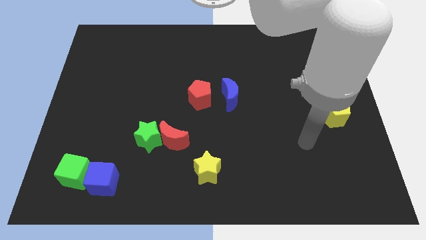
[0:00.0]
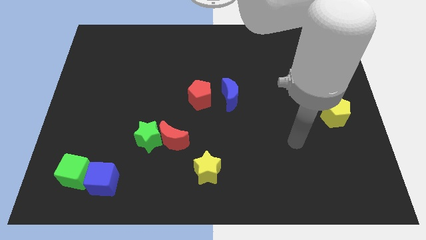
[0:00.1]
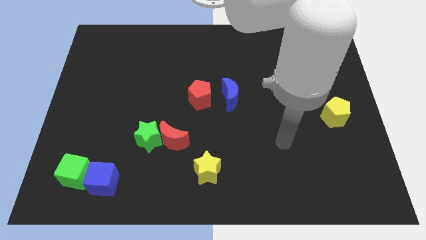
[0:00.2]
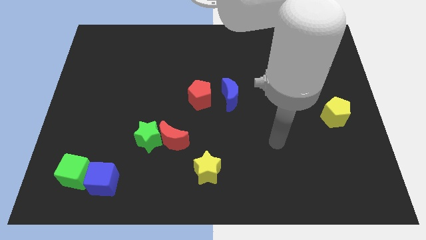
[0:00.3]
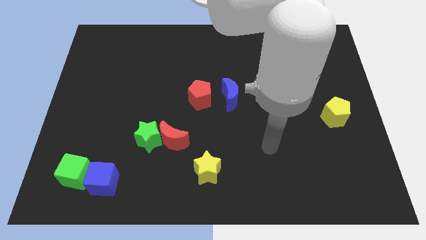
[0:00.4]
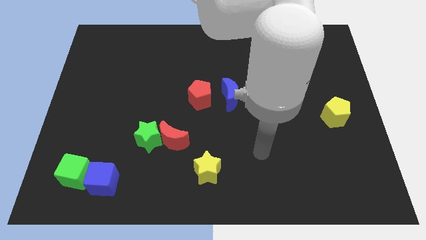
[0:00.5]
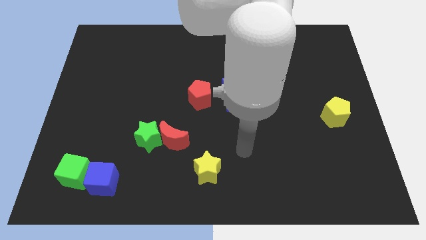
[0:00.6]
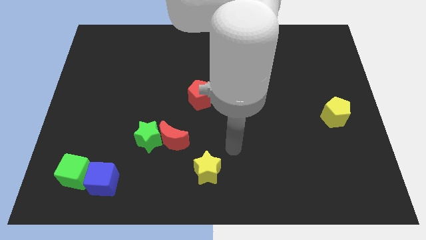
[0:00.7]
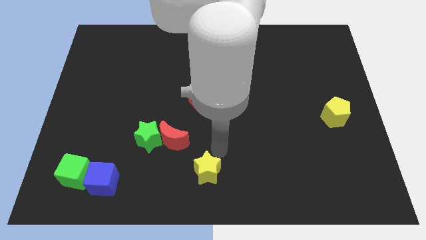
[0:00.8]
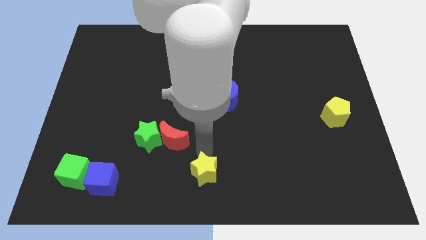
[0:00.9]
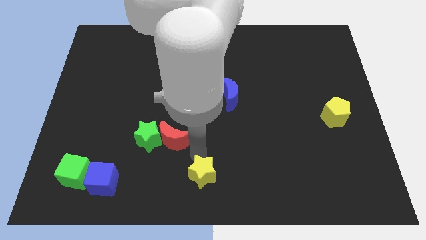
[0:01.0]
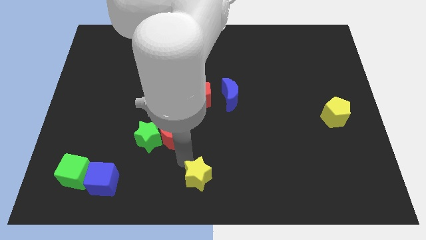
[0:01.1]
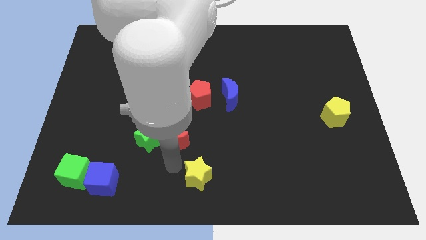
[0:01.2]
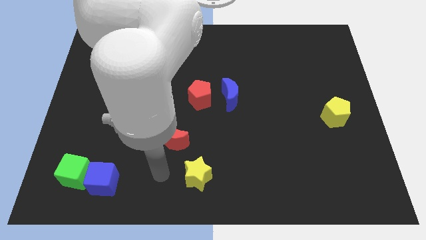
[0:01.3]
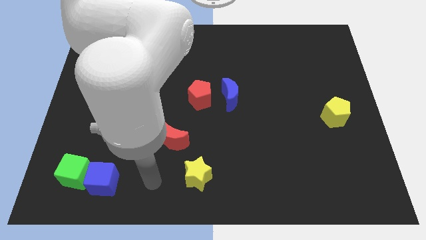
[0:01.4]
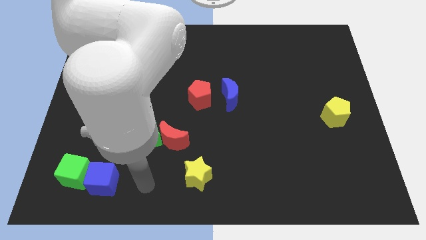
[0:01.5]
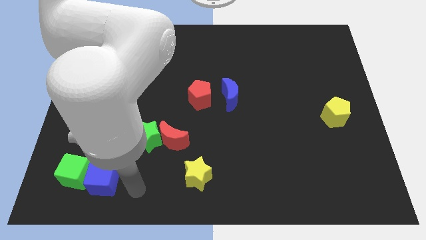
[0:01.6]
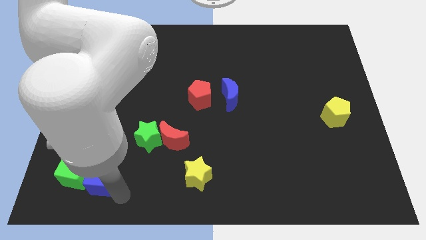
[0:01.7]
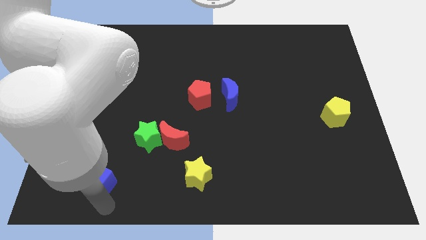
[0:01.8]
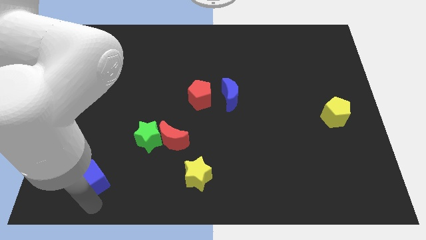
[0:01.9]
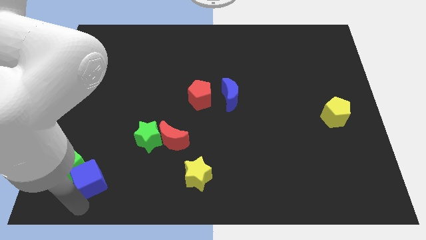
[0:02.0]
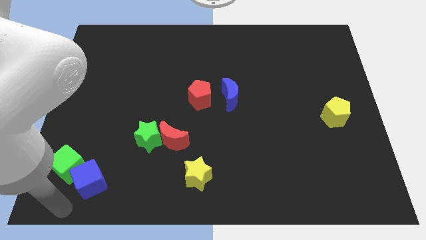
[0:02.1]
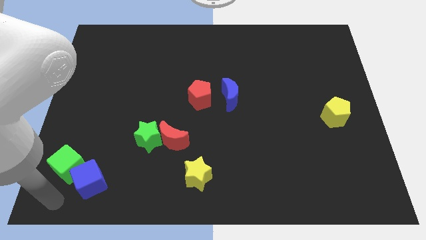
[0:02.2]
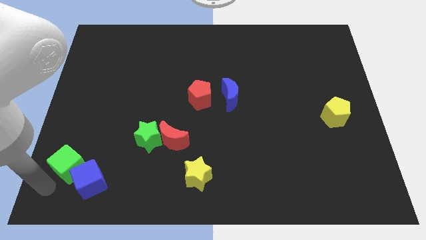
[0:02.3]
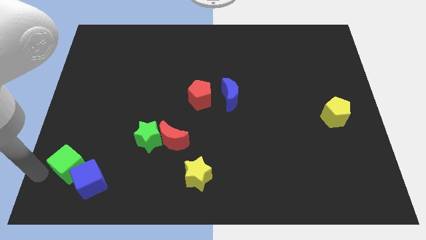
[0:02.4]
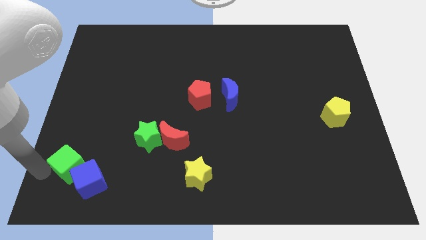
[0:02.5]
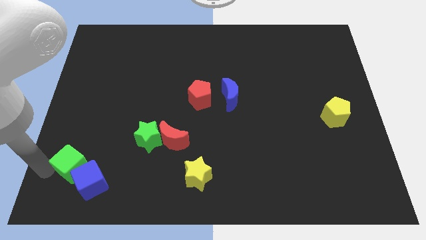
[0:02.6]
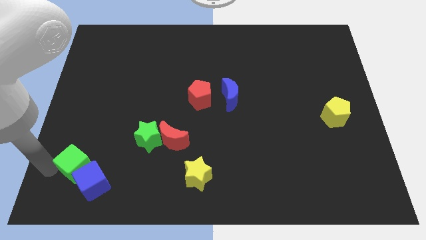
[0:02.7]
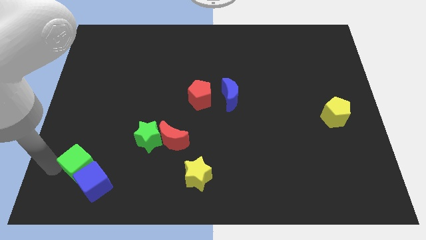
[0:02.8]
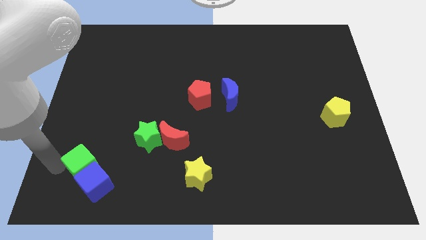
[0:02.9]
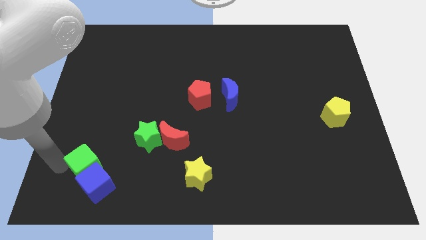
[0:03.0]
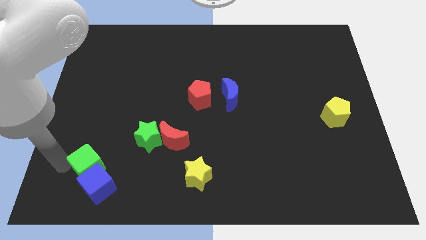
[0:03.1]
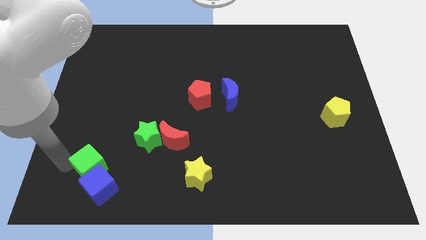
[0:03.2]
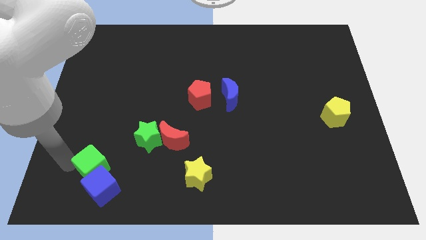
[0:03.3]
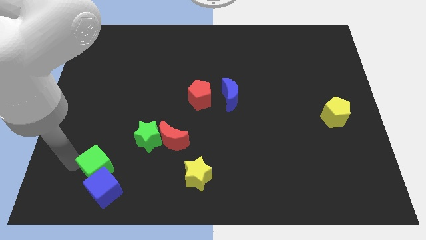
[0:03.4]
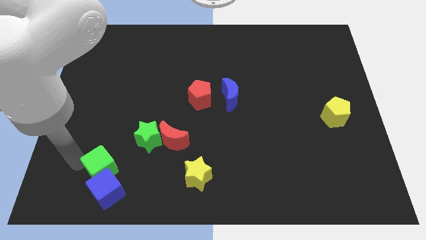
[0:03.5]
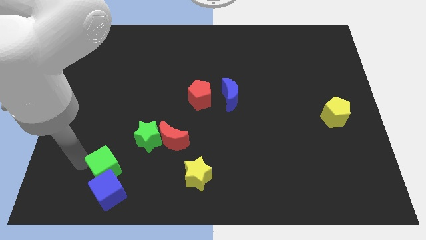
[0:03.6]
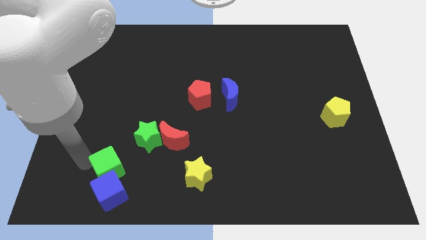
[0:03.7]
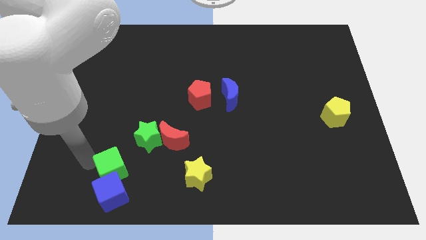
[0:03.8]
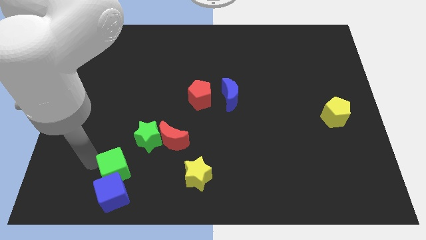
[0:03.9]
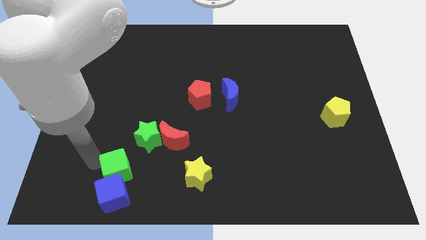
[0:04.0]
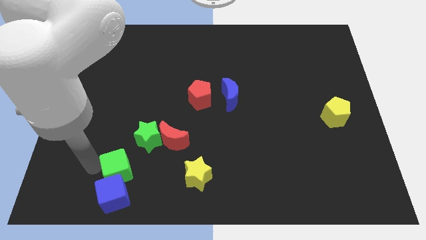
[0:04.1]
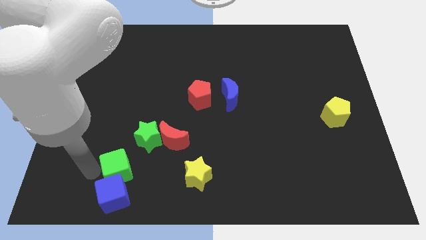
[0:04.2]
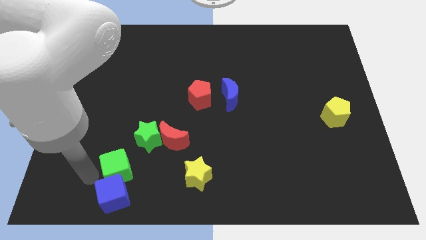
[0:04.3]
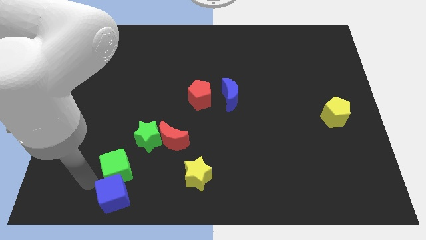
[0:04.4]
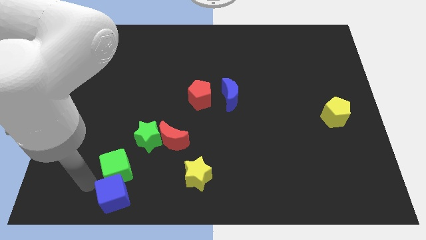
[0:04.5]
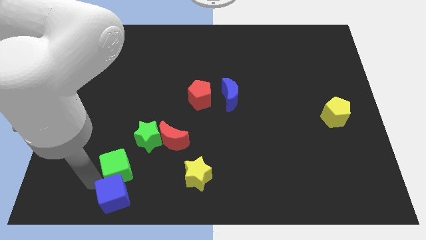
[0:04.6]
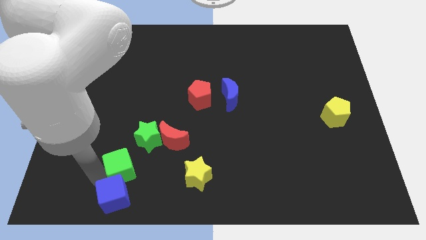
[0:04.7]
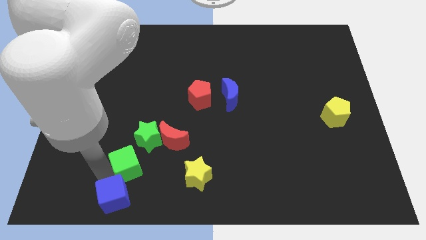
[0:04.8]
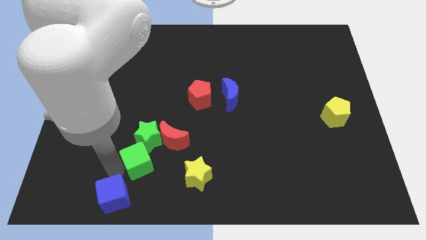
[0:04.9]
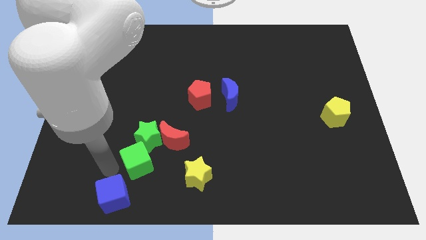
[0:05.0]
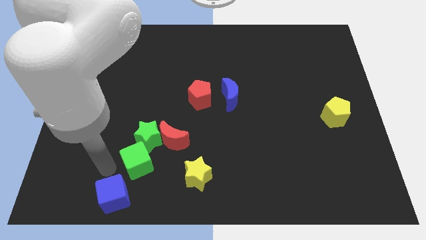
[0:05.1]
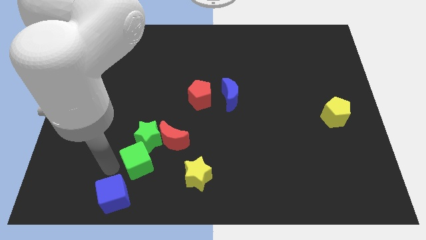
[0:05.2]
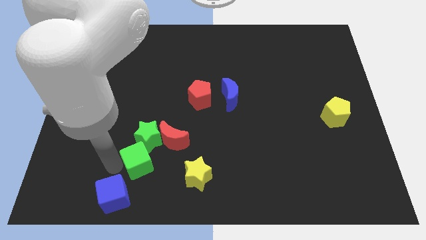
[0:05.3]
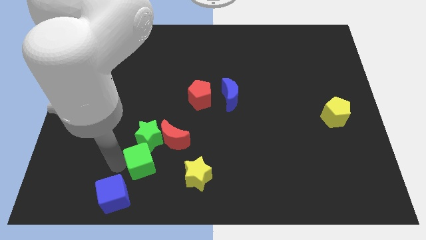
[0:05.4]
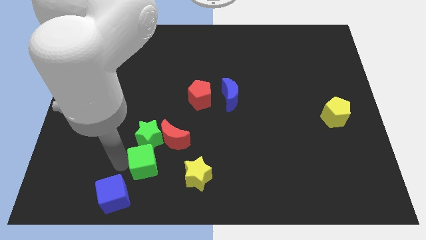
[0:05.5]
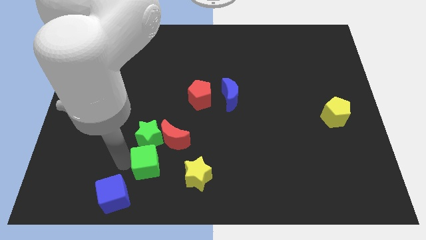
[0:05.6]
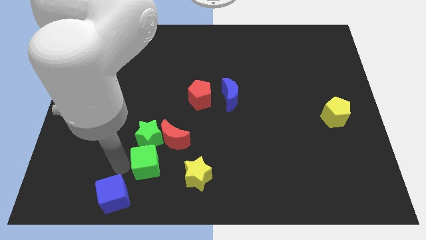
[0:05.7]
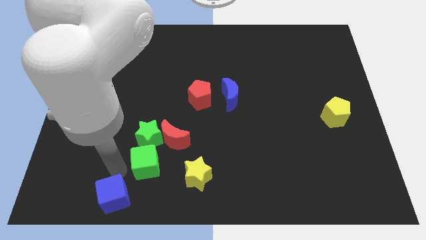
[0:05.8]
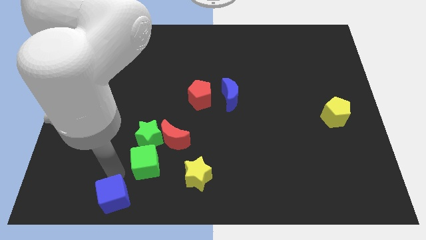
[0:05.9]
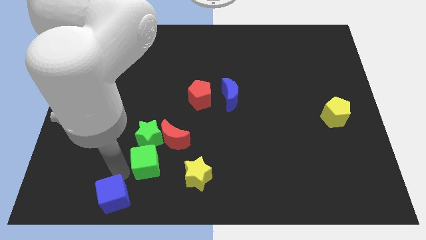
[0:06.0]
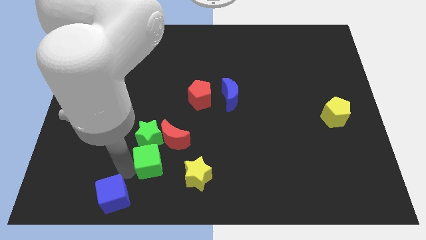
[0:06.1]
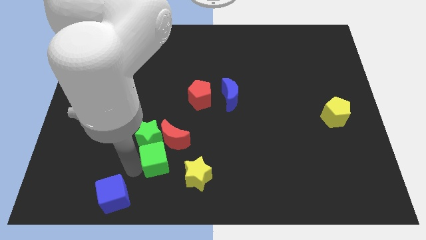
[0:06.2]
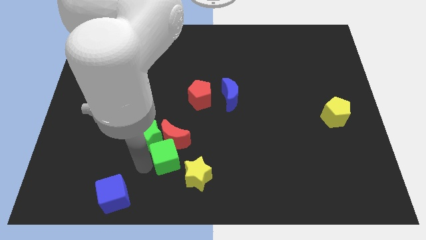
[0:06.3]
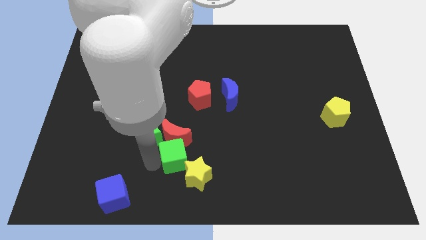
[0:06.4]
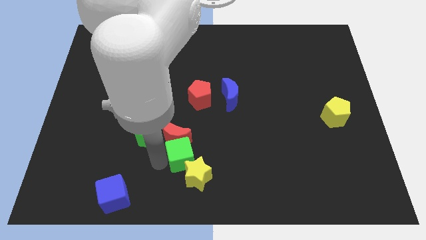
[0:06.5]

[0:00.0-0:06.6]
push the green cube to the right

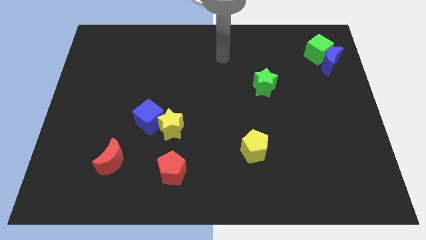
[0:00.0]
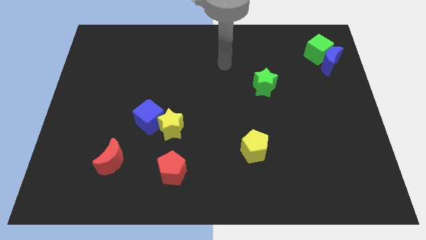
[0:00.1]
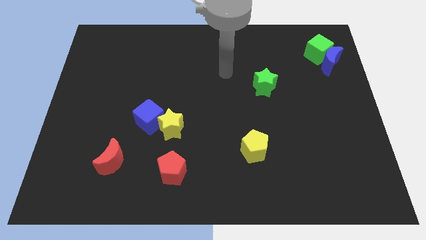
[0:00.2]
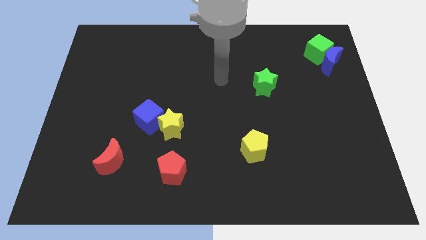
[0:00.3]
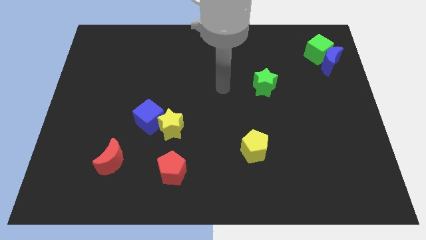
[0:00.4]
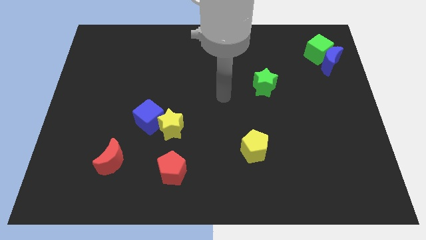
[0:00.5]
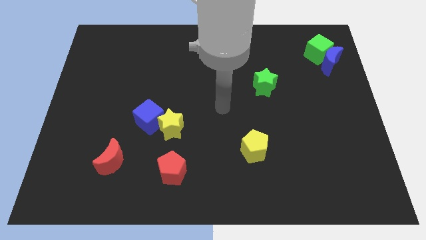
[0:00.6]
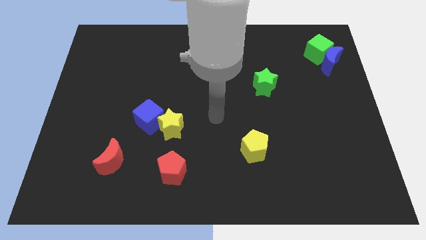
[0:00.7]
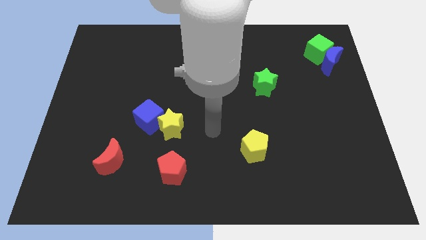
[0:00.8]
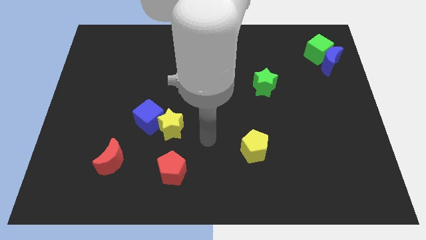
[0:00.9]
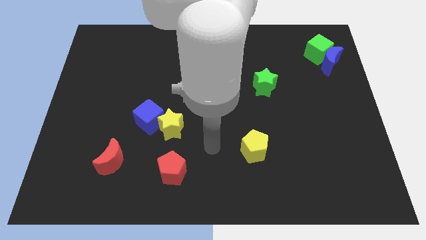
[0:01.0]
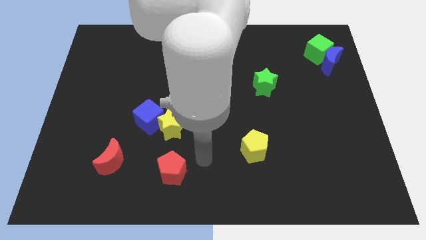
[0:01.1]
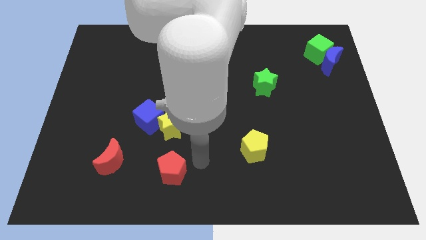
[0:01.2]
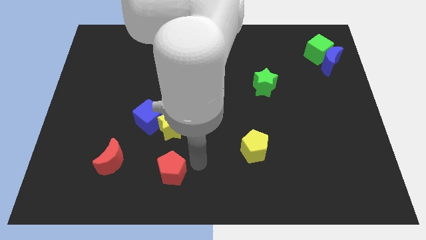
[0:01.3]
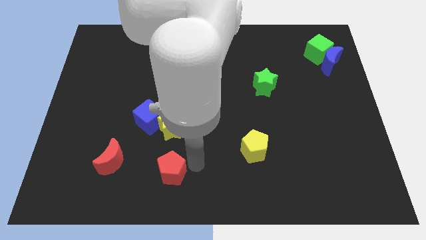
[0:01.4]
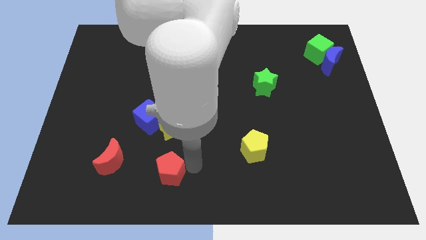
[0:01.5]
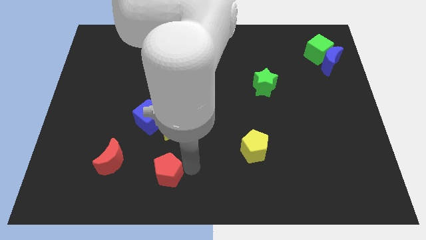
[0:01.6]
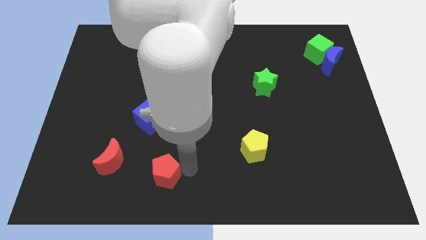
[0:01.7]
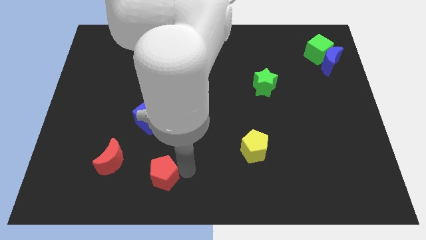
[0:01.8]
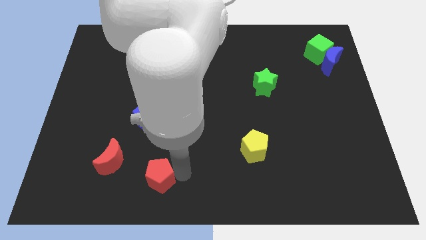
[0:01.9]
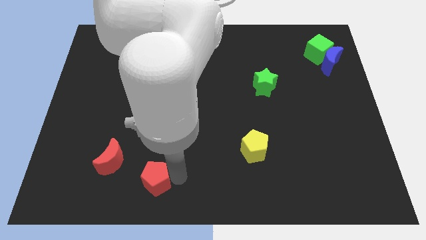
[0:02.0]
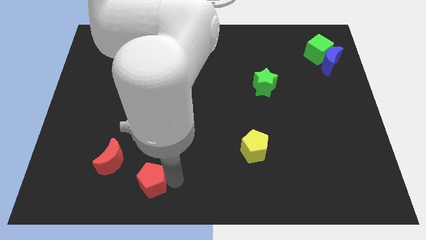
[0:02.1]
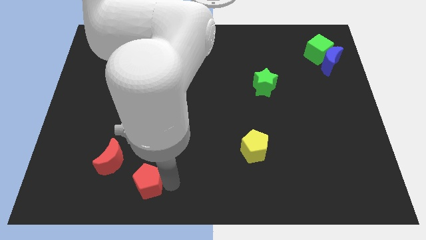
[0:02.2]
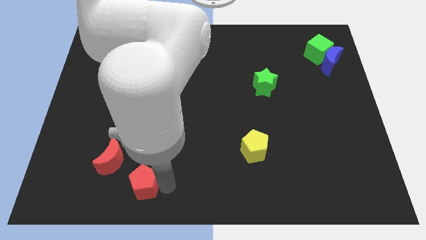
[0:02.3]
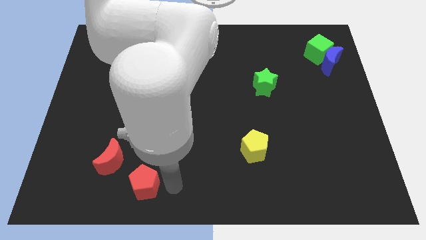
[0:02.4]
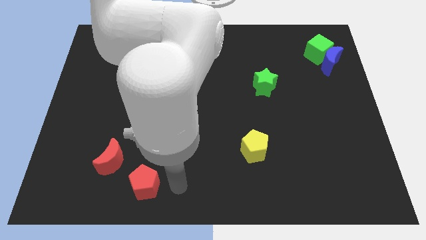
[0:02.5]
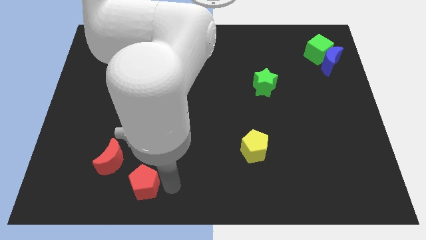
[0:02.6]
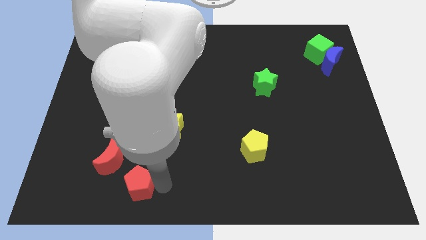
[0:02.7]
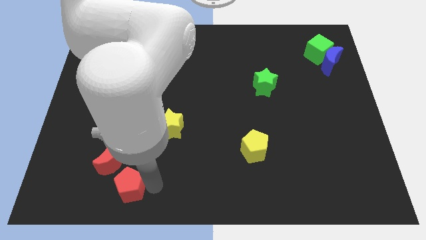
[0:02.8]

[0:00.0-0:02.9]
slightly slide the red pentagon left
